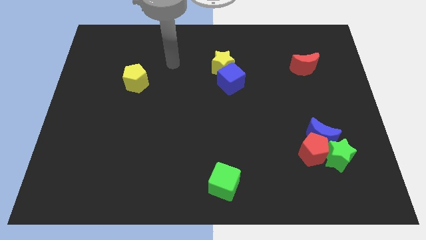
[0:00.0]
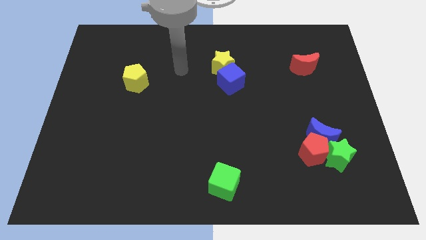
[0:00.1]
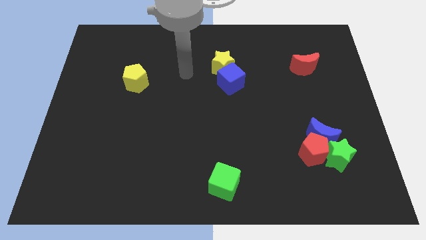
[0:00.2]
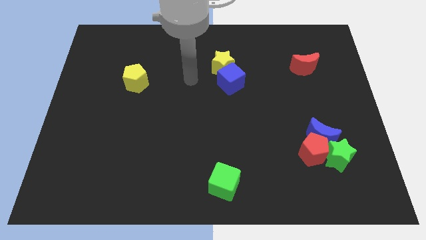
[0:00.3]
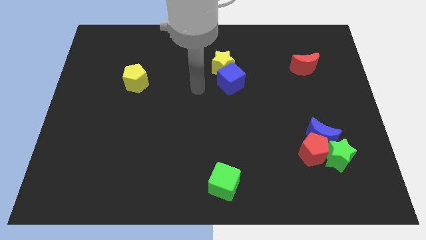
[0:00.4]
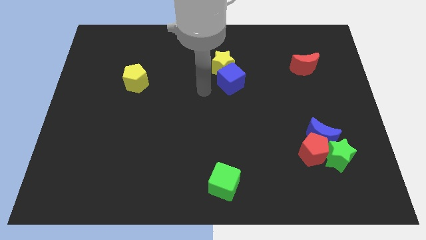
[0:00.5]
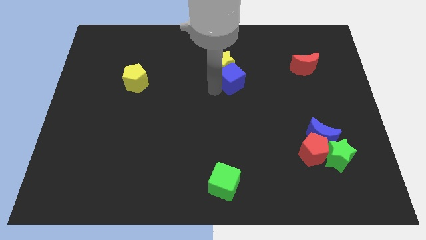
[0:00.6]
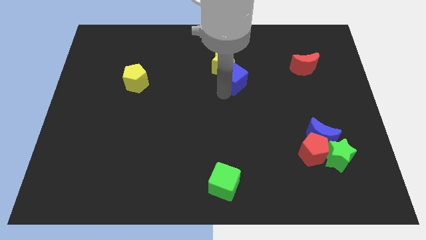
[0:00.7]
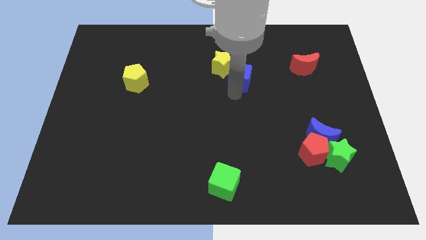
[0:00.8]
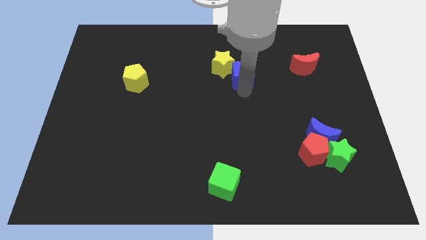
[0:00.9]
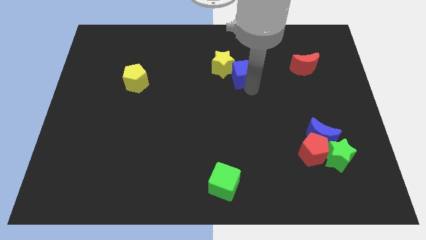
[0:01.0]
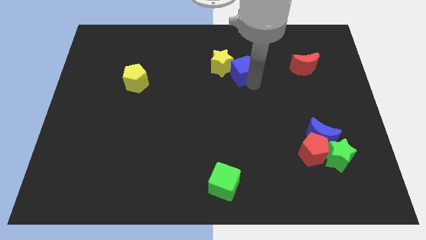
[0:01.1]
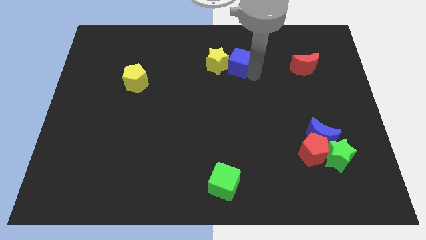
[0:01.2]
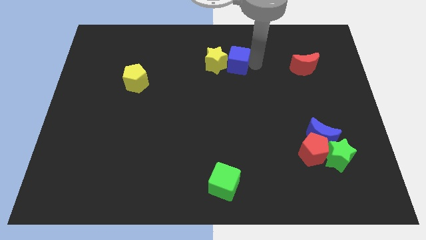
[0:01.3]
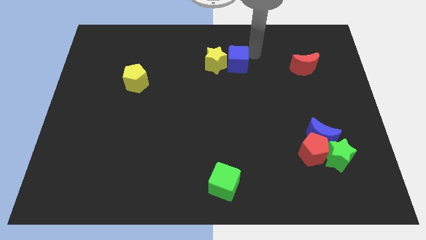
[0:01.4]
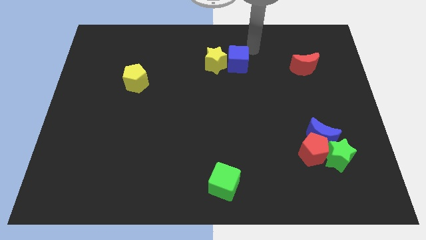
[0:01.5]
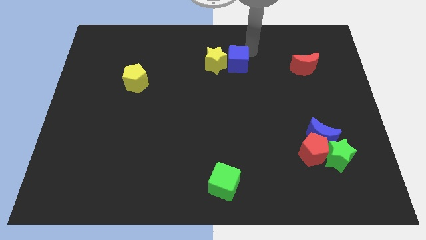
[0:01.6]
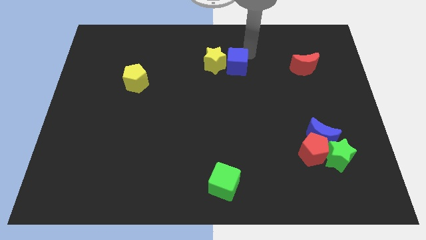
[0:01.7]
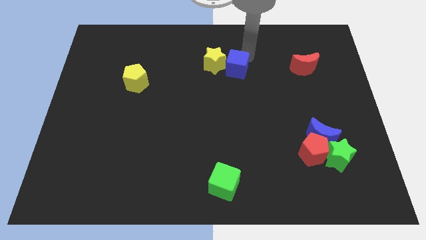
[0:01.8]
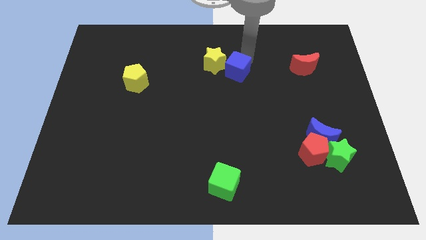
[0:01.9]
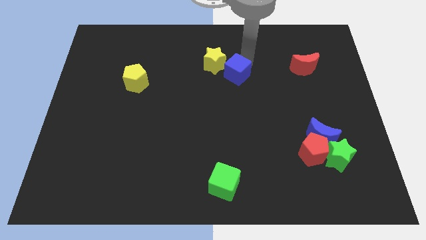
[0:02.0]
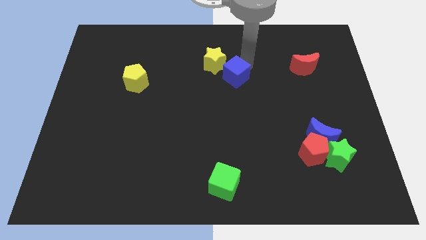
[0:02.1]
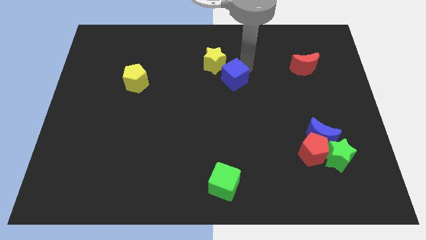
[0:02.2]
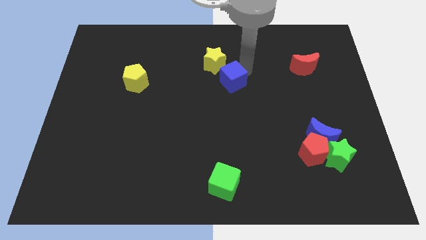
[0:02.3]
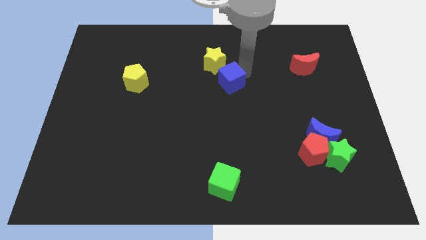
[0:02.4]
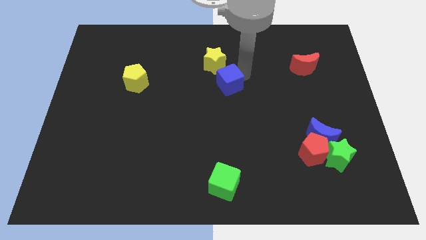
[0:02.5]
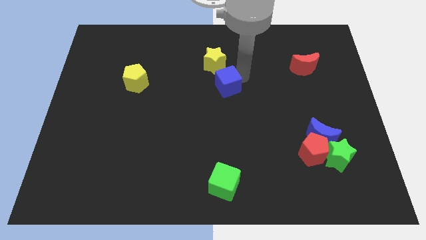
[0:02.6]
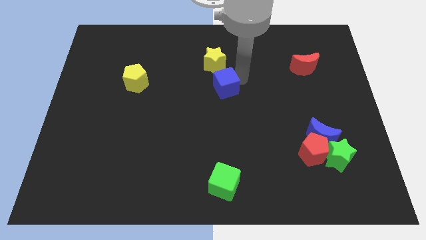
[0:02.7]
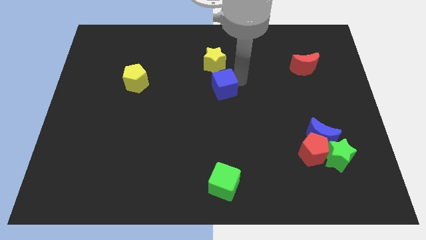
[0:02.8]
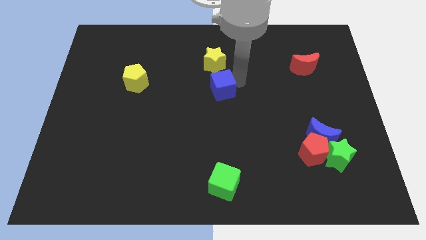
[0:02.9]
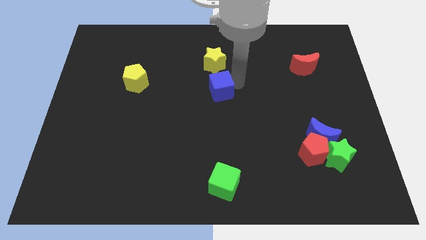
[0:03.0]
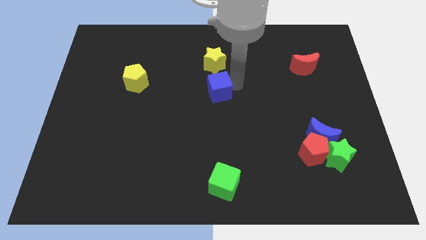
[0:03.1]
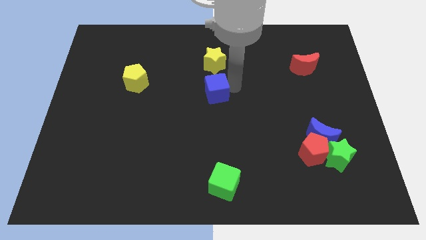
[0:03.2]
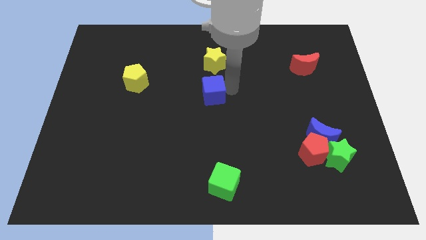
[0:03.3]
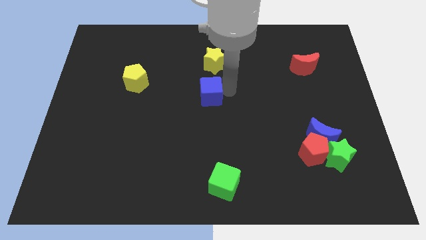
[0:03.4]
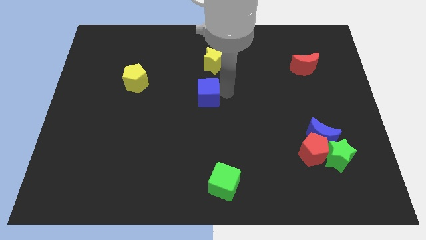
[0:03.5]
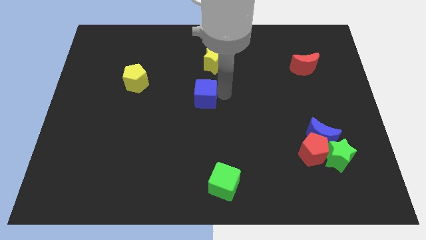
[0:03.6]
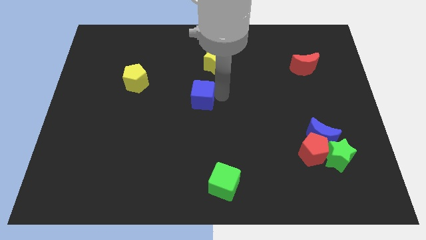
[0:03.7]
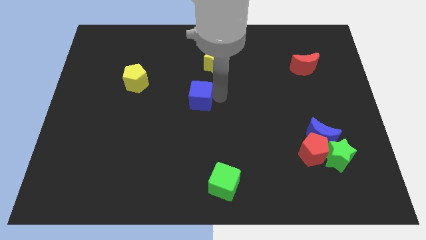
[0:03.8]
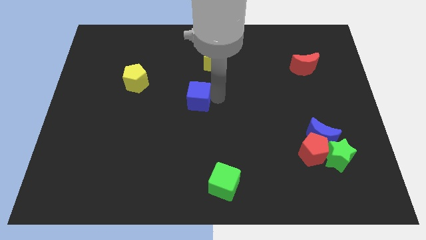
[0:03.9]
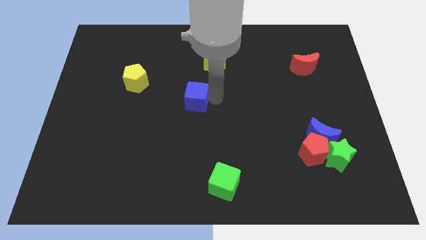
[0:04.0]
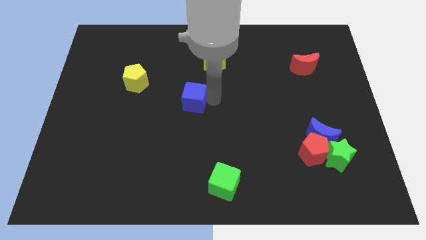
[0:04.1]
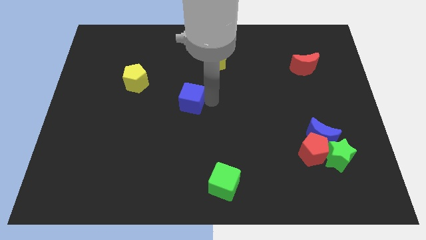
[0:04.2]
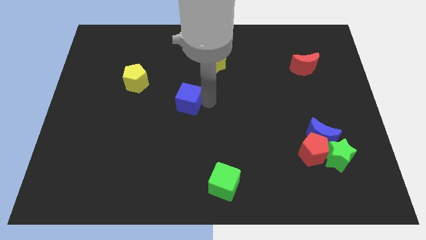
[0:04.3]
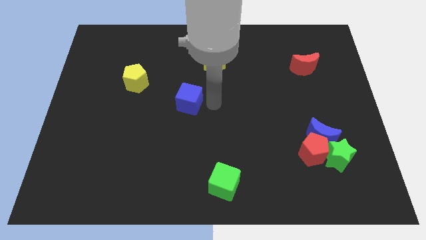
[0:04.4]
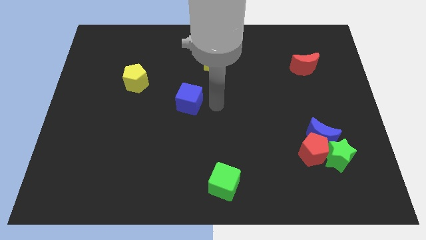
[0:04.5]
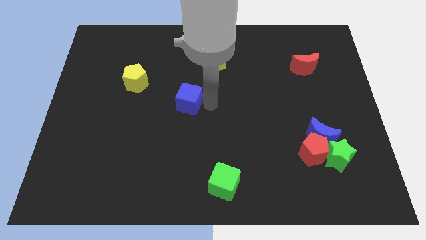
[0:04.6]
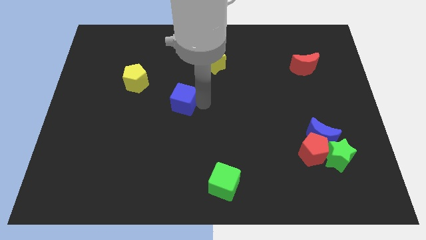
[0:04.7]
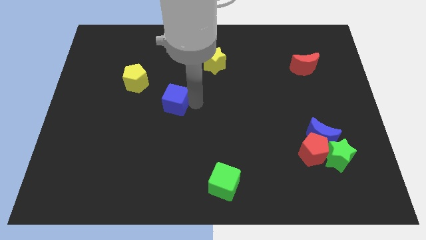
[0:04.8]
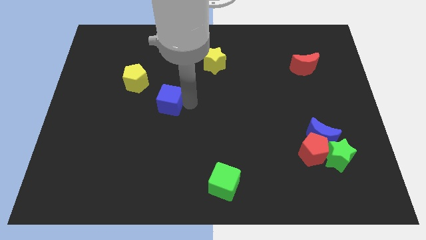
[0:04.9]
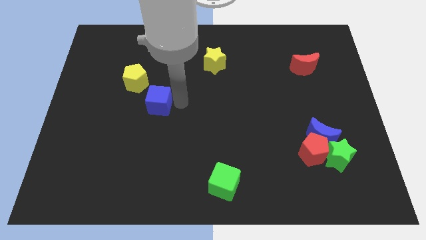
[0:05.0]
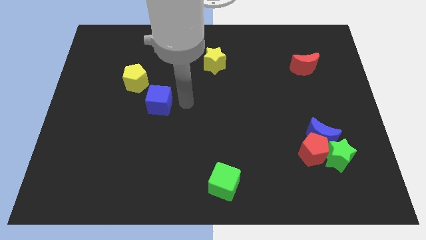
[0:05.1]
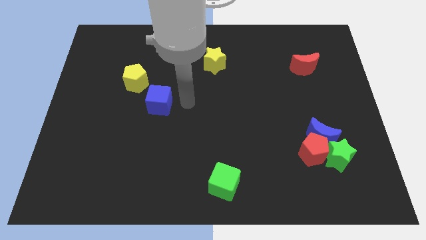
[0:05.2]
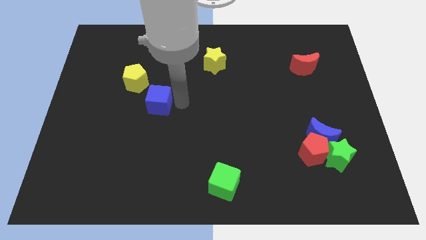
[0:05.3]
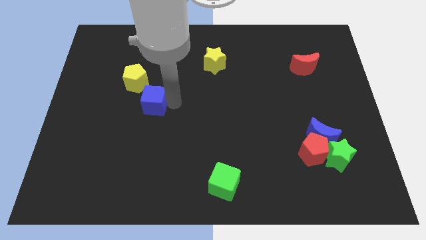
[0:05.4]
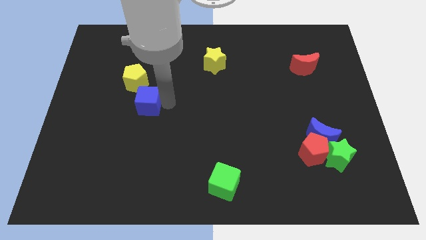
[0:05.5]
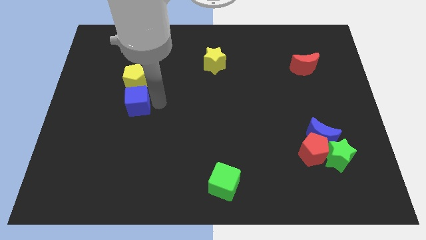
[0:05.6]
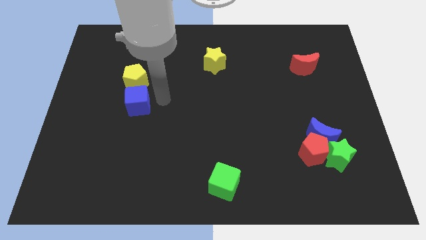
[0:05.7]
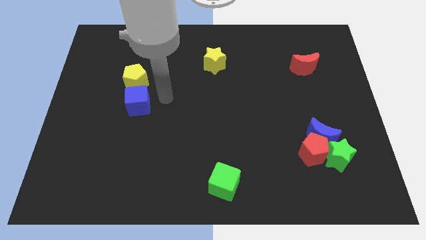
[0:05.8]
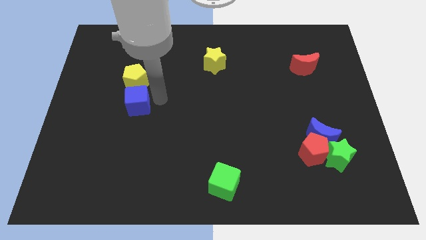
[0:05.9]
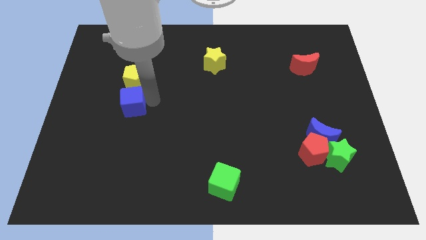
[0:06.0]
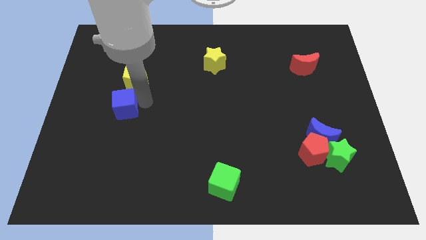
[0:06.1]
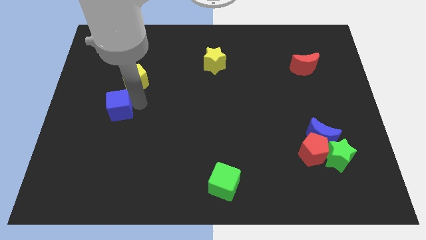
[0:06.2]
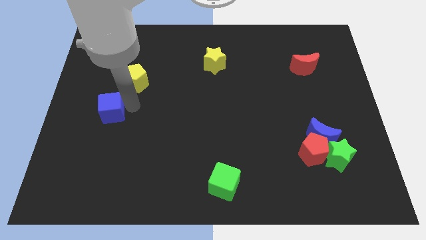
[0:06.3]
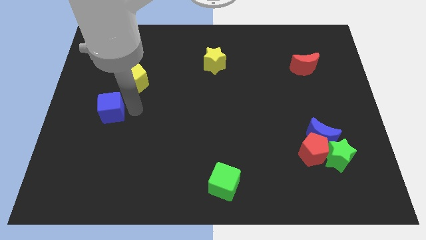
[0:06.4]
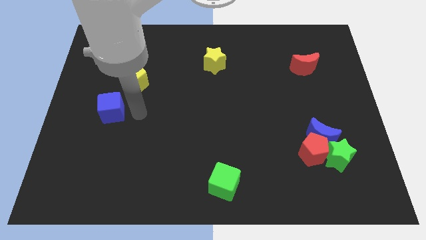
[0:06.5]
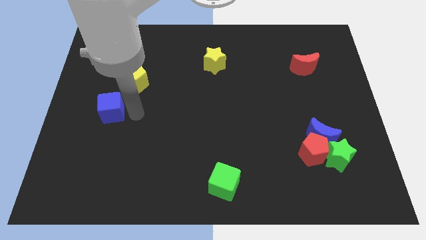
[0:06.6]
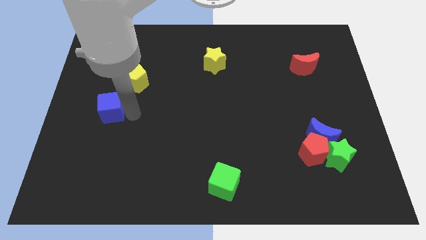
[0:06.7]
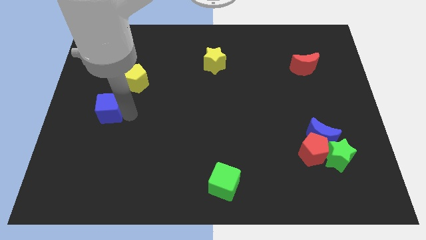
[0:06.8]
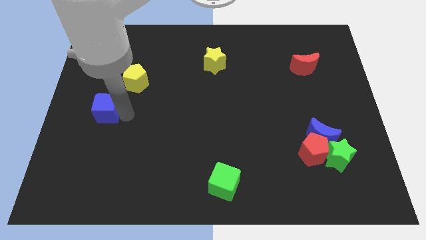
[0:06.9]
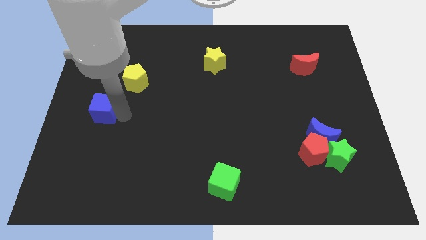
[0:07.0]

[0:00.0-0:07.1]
put the blue cube to the left side
